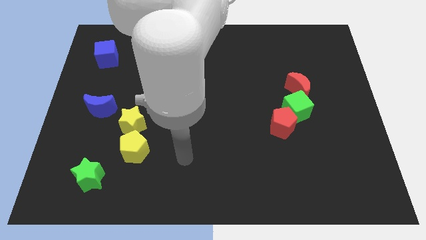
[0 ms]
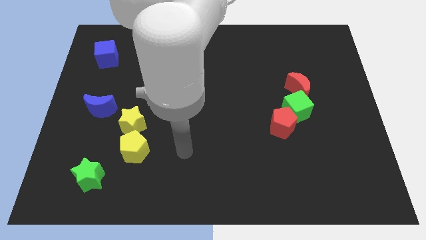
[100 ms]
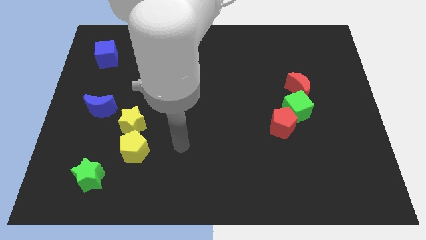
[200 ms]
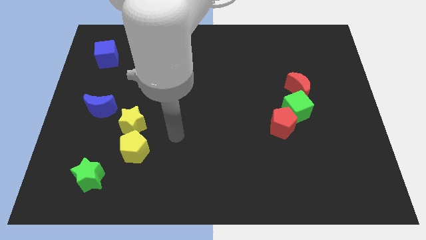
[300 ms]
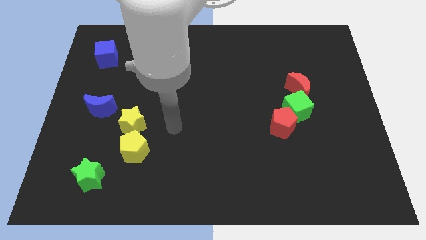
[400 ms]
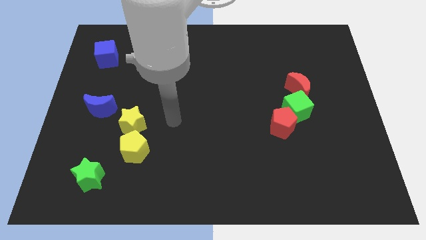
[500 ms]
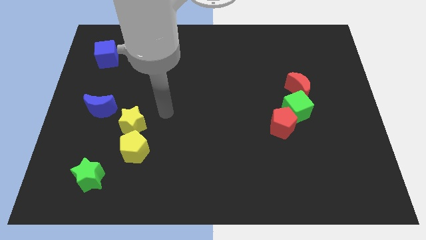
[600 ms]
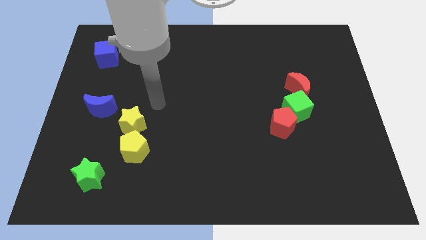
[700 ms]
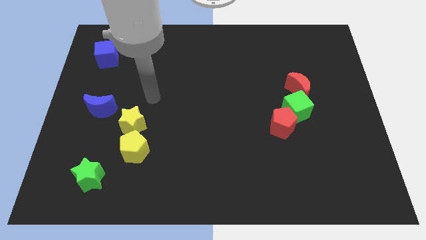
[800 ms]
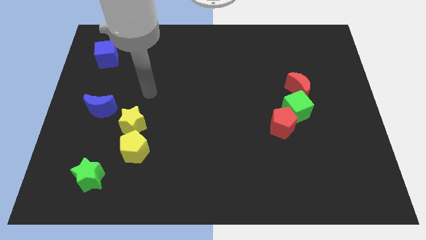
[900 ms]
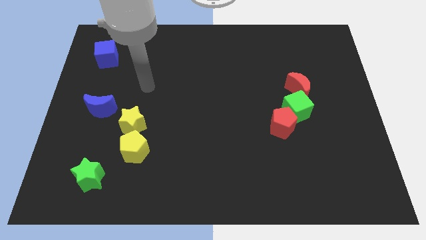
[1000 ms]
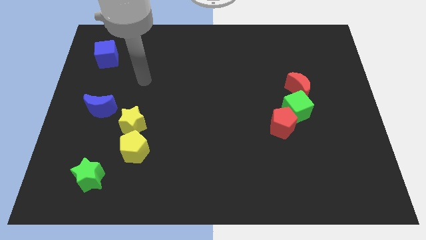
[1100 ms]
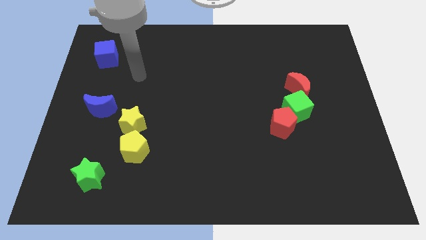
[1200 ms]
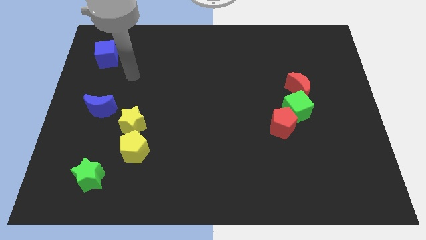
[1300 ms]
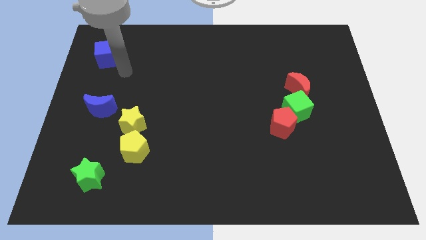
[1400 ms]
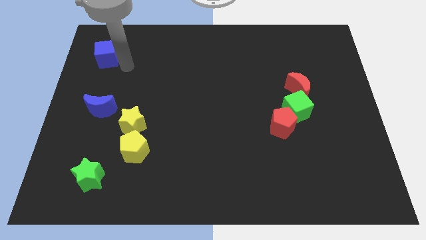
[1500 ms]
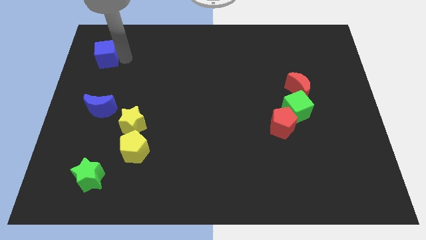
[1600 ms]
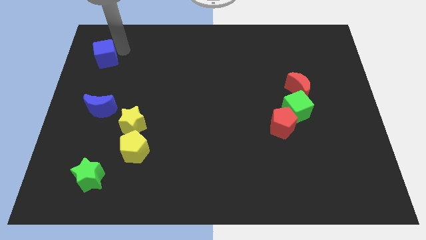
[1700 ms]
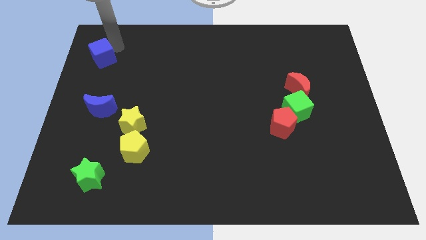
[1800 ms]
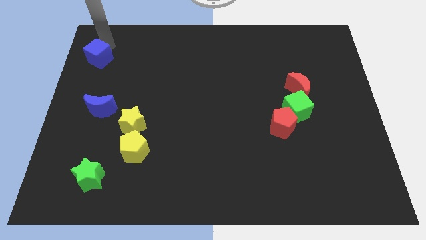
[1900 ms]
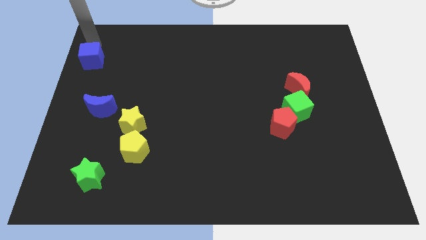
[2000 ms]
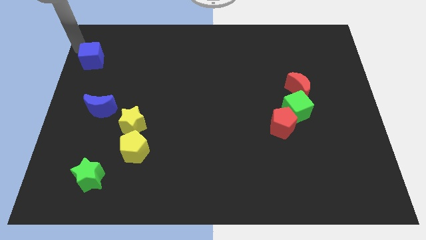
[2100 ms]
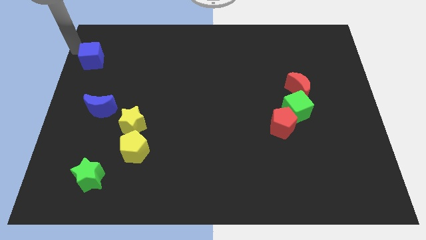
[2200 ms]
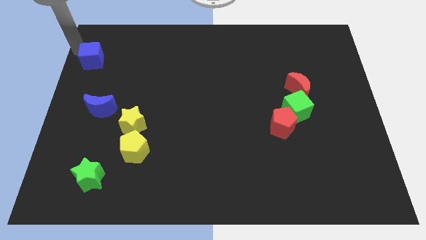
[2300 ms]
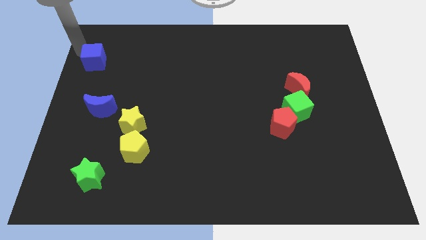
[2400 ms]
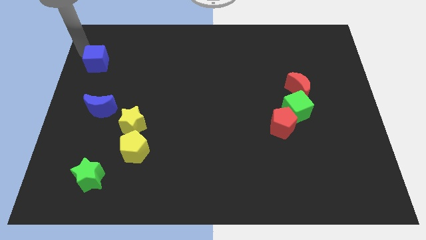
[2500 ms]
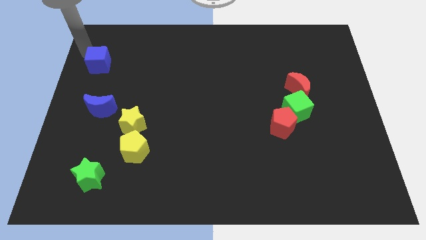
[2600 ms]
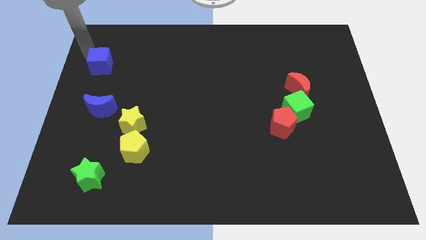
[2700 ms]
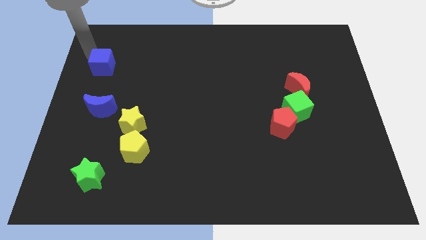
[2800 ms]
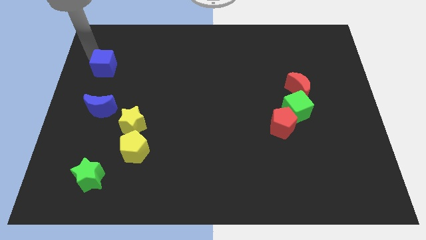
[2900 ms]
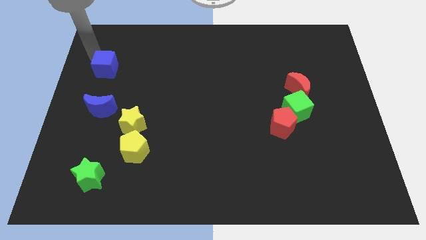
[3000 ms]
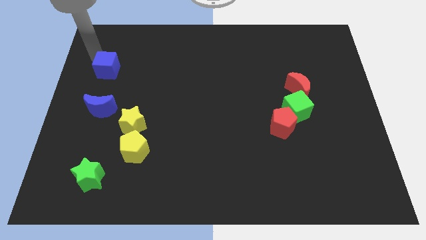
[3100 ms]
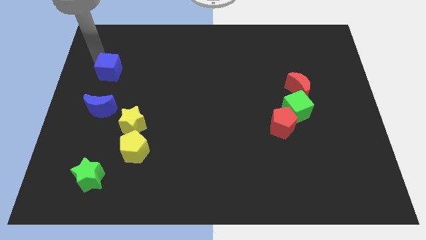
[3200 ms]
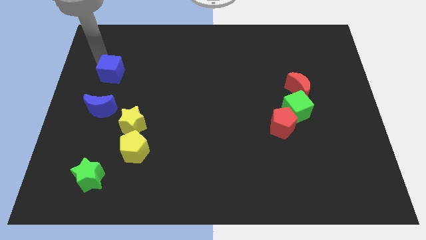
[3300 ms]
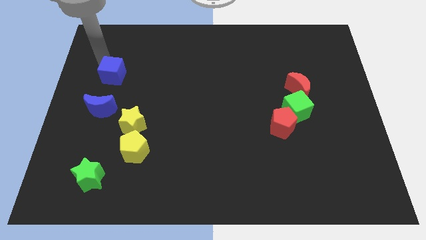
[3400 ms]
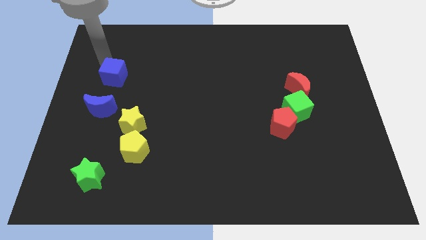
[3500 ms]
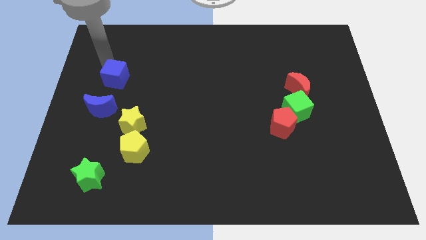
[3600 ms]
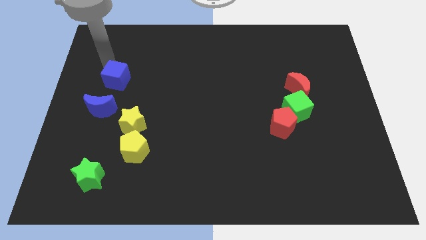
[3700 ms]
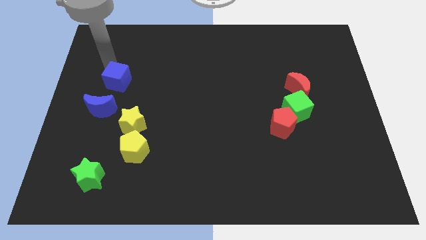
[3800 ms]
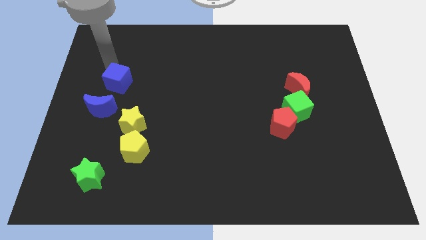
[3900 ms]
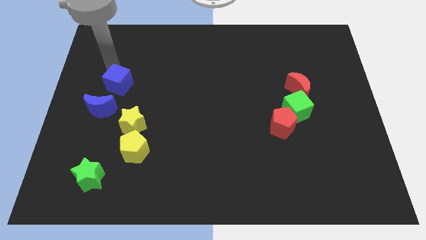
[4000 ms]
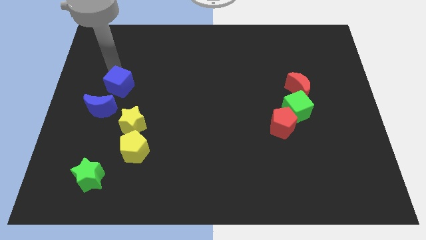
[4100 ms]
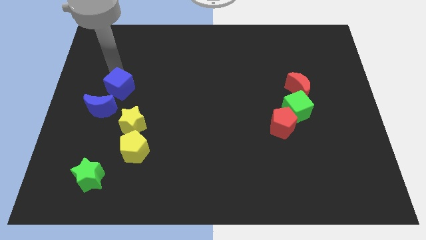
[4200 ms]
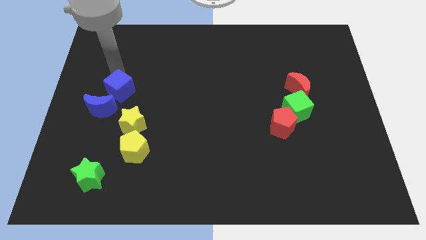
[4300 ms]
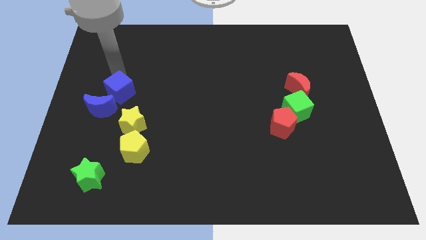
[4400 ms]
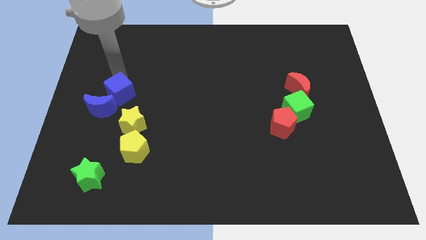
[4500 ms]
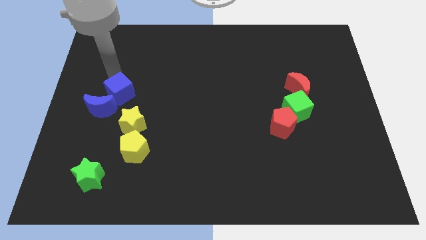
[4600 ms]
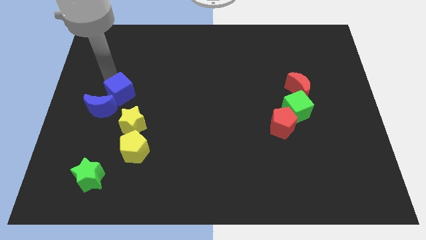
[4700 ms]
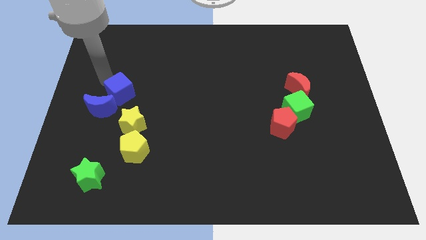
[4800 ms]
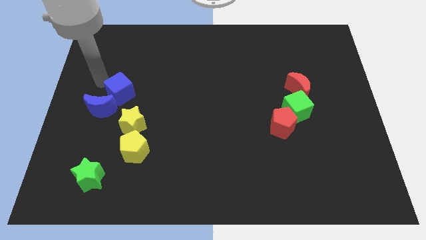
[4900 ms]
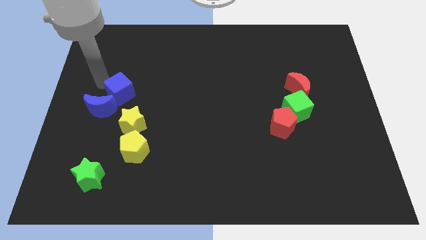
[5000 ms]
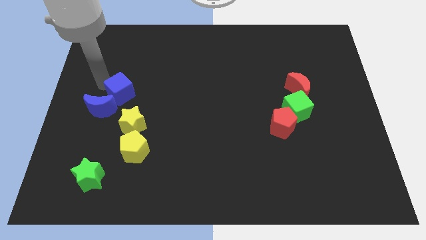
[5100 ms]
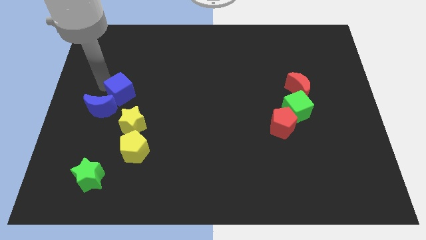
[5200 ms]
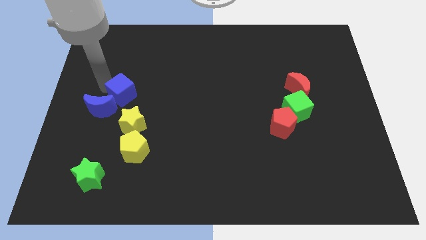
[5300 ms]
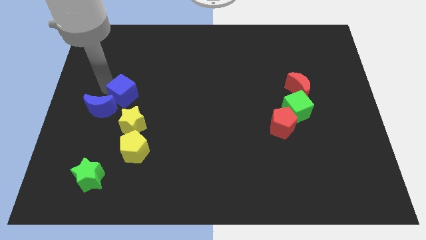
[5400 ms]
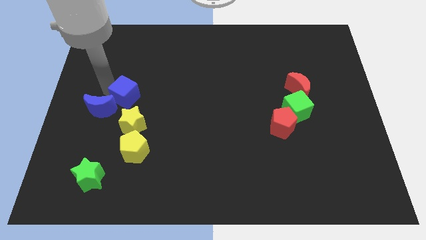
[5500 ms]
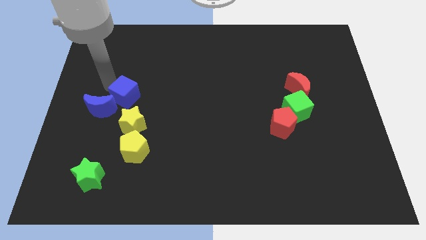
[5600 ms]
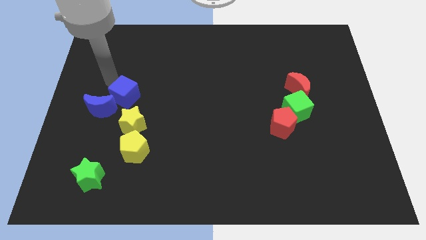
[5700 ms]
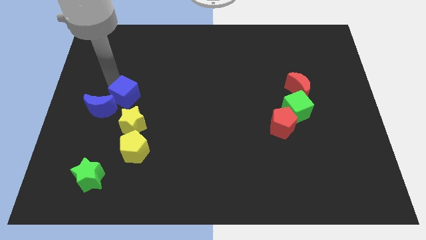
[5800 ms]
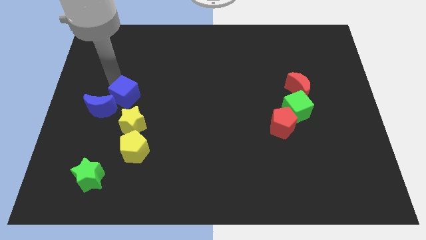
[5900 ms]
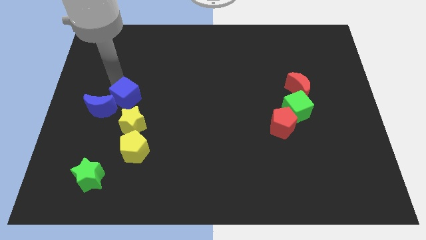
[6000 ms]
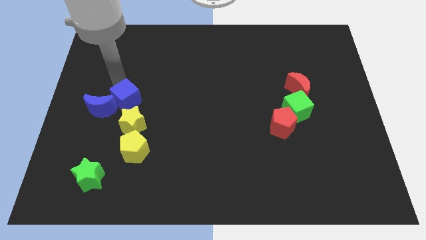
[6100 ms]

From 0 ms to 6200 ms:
move the blue cube above the yellow pentagon

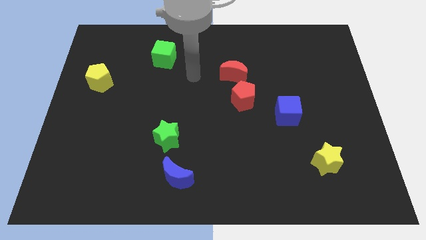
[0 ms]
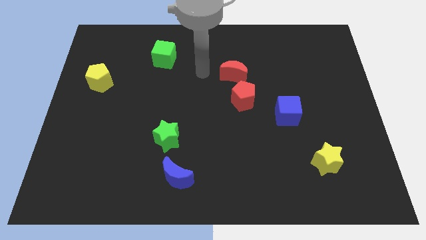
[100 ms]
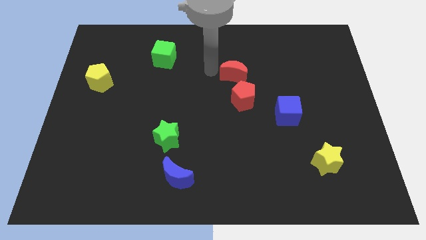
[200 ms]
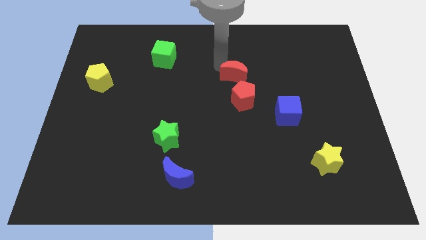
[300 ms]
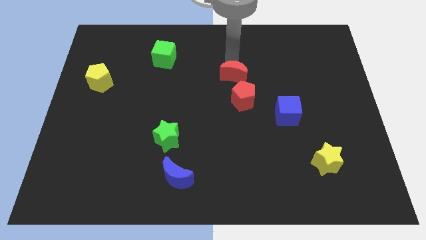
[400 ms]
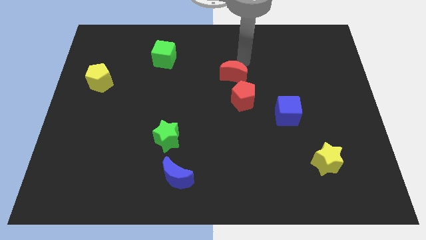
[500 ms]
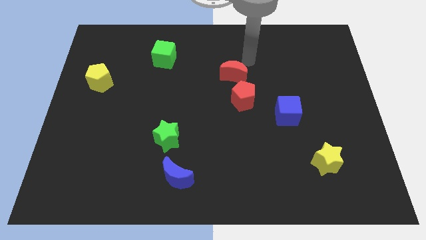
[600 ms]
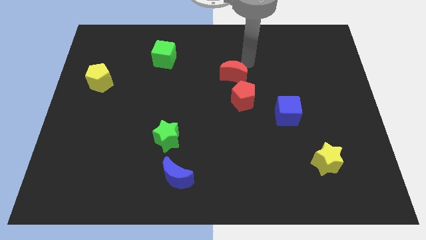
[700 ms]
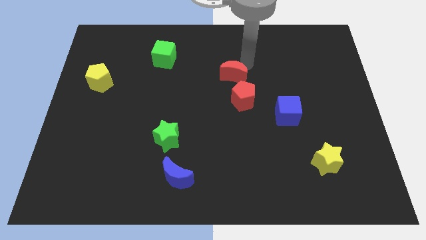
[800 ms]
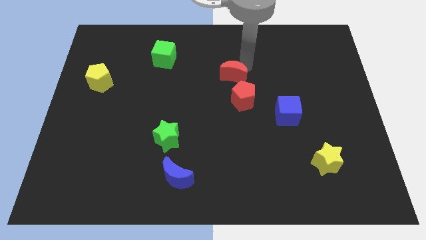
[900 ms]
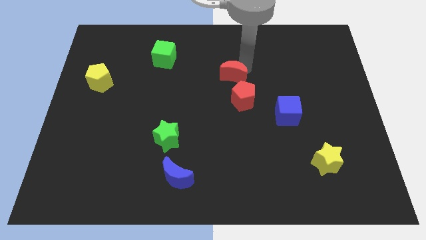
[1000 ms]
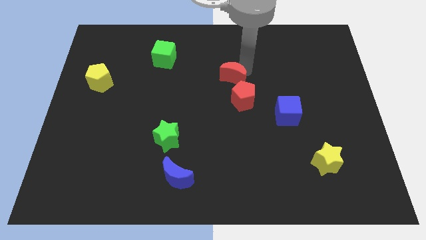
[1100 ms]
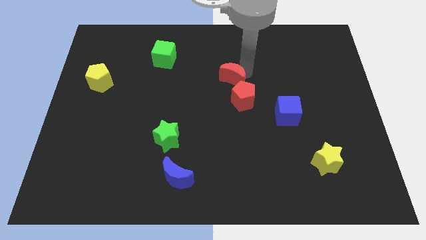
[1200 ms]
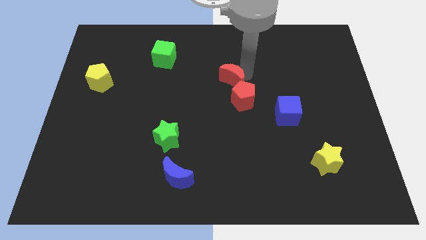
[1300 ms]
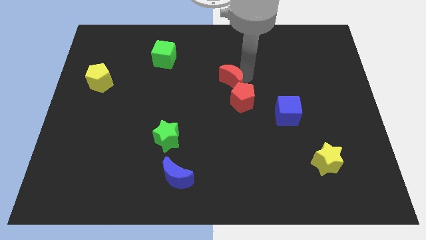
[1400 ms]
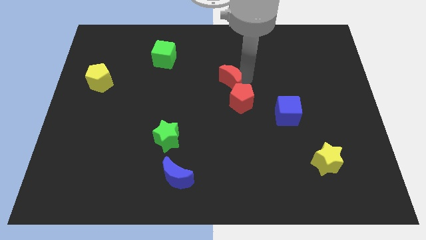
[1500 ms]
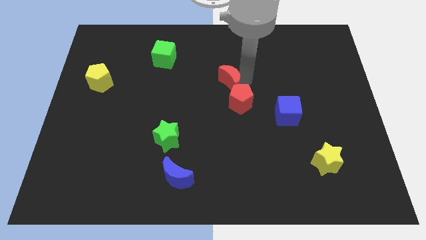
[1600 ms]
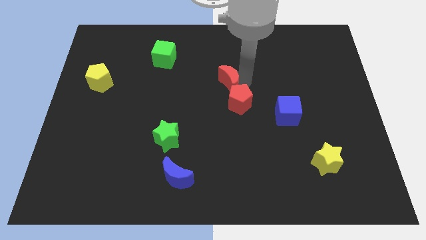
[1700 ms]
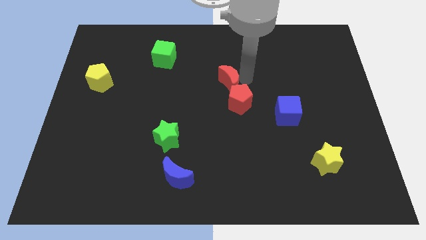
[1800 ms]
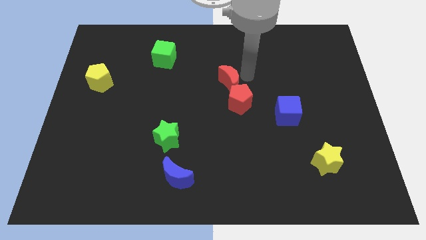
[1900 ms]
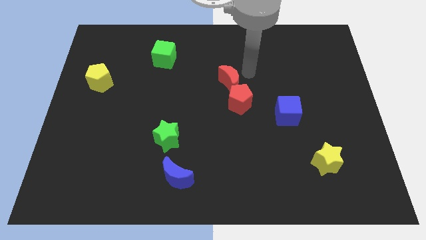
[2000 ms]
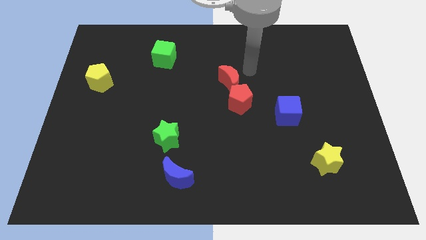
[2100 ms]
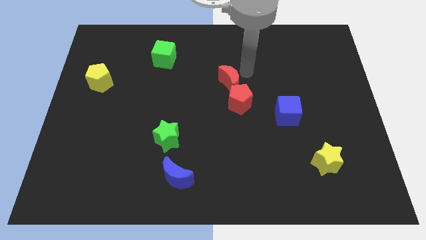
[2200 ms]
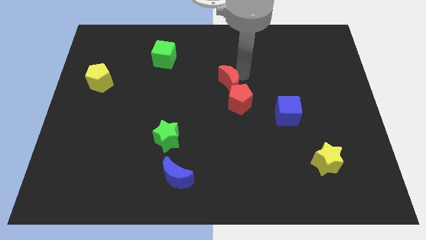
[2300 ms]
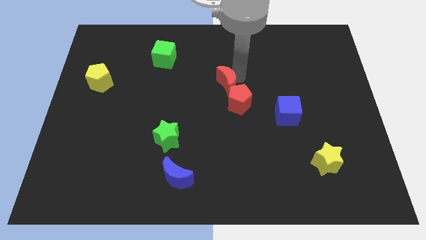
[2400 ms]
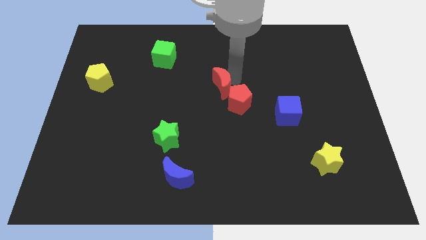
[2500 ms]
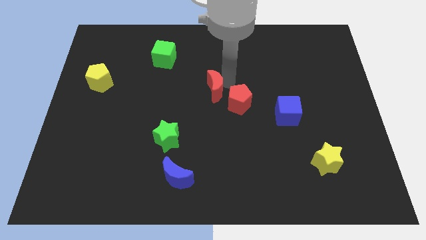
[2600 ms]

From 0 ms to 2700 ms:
slide the red moon to the left side of the red pentagon
